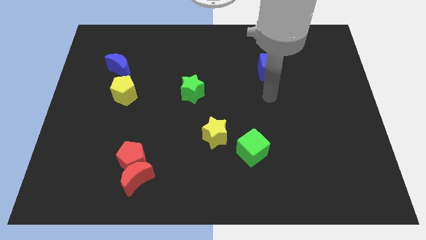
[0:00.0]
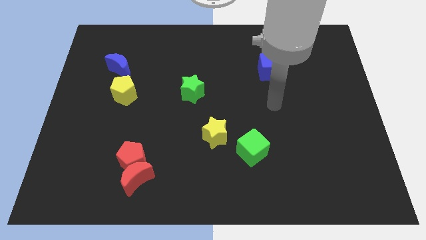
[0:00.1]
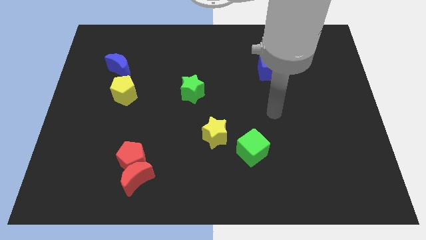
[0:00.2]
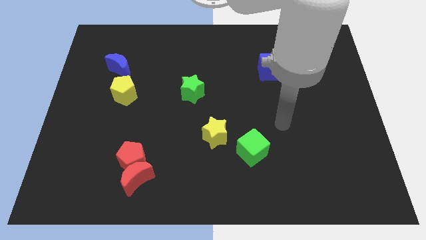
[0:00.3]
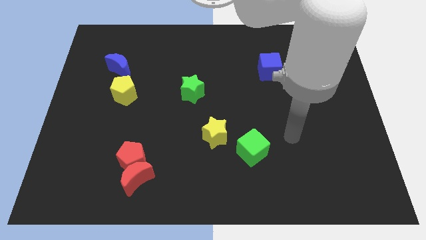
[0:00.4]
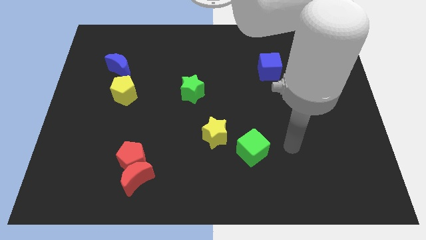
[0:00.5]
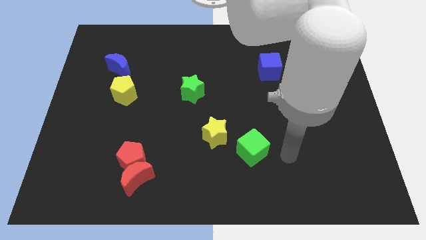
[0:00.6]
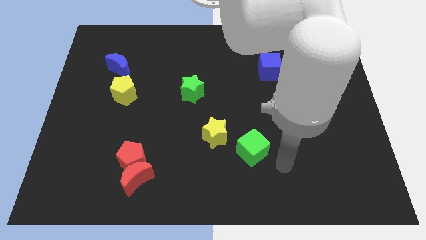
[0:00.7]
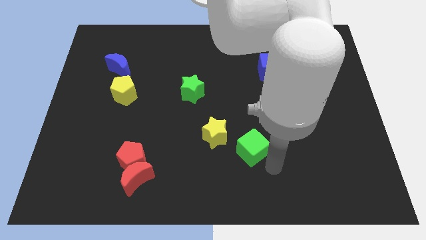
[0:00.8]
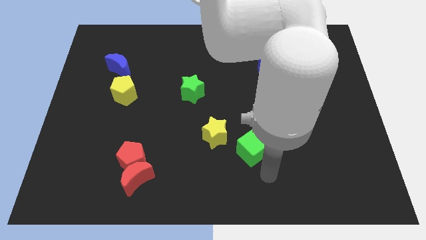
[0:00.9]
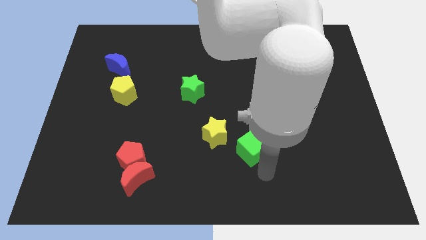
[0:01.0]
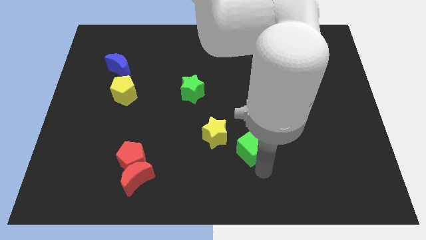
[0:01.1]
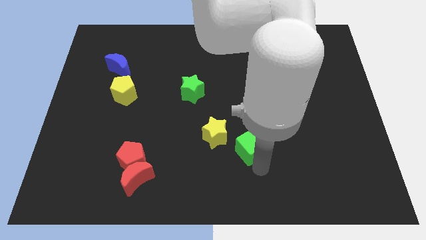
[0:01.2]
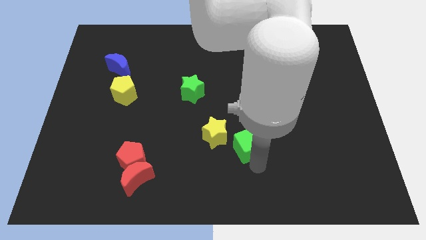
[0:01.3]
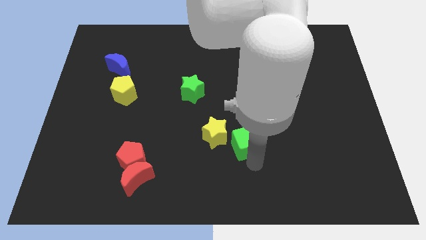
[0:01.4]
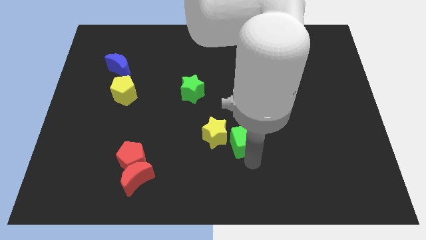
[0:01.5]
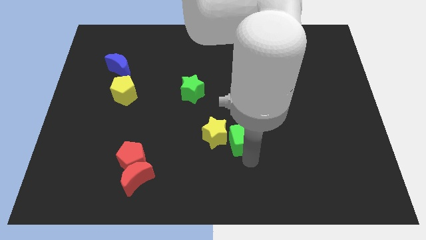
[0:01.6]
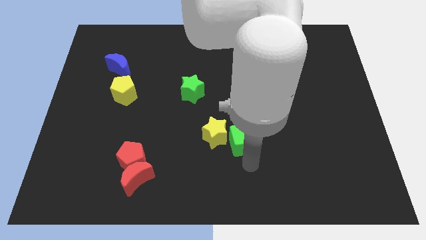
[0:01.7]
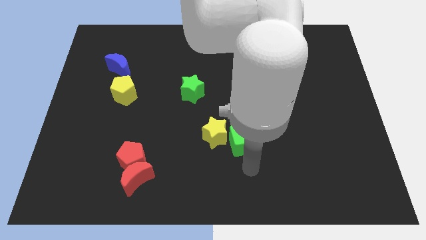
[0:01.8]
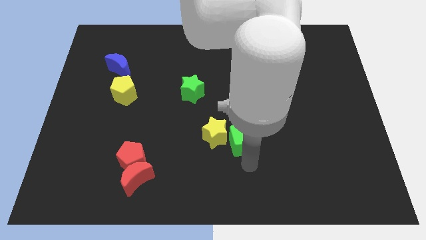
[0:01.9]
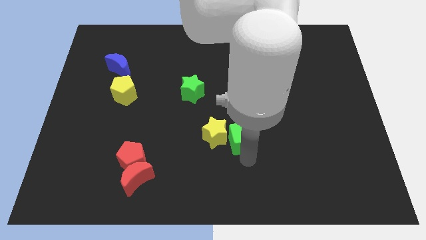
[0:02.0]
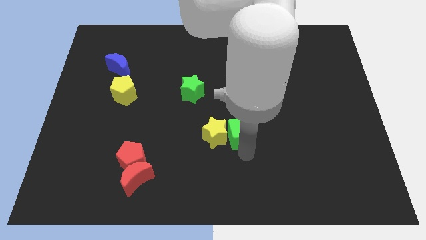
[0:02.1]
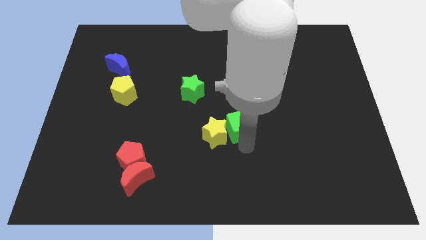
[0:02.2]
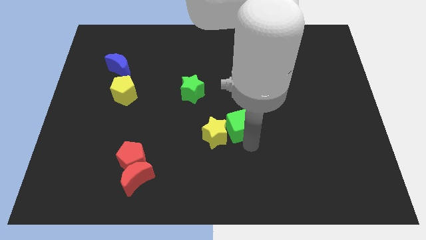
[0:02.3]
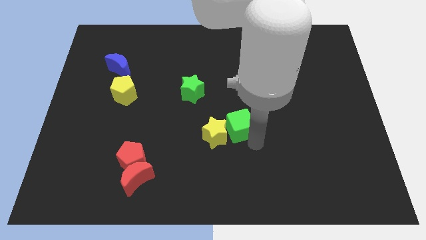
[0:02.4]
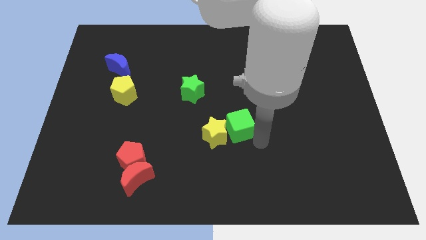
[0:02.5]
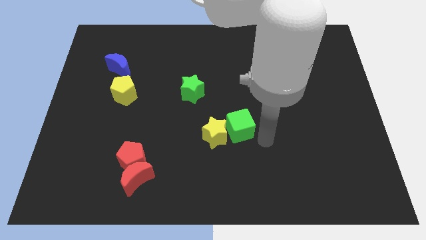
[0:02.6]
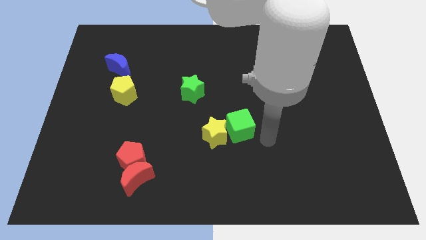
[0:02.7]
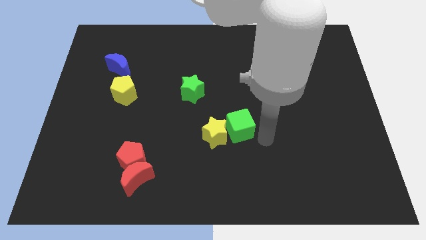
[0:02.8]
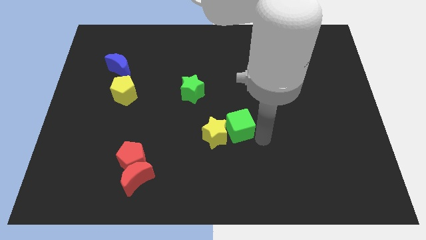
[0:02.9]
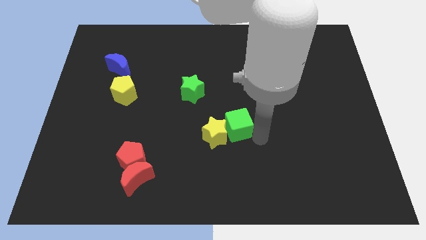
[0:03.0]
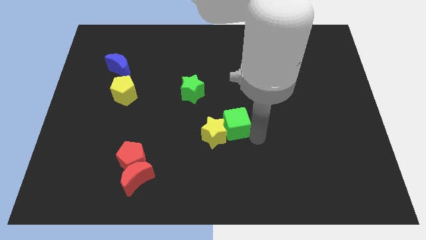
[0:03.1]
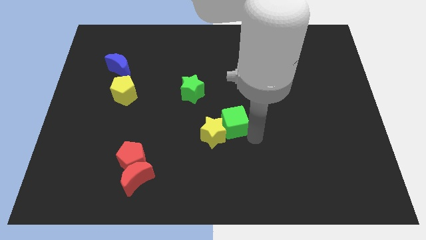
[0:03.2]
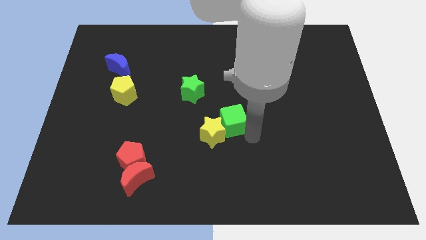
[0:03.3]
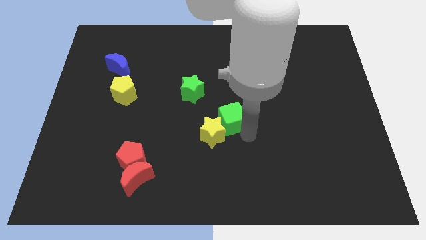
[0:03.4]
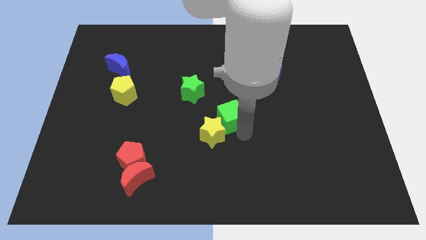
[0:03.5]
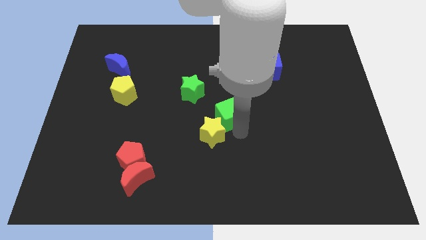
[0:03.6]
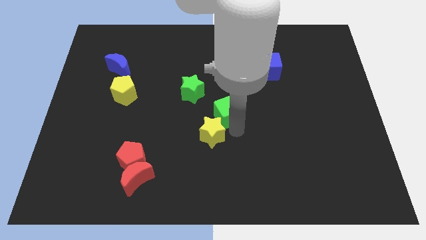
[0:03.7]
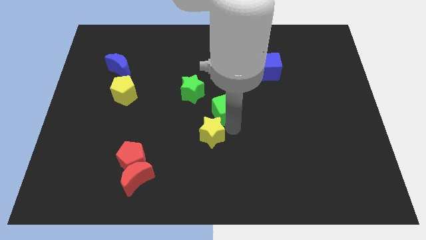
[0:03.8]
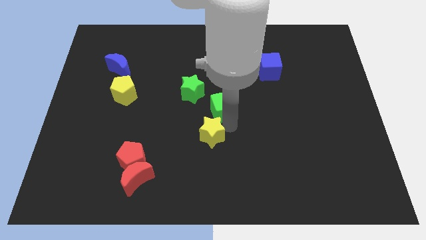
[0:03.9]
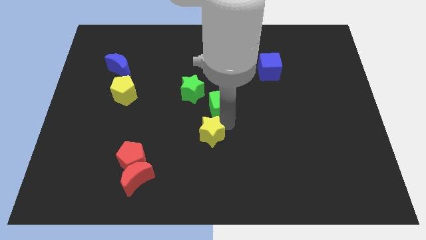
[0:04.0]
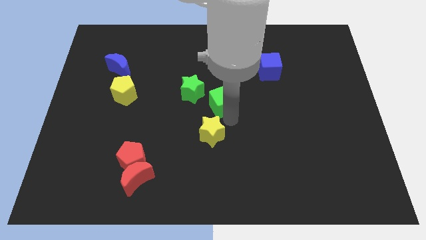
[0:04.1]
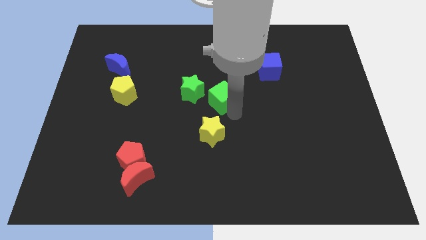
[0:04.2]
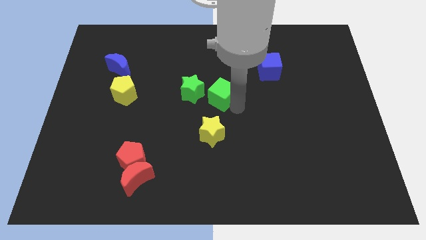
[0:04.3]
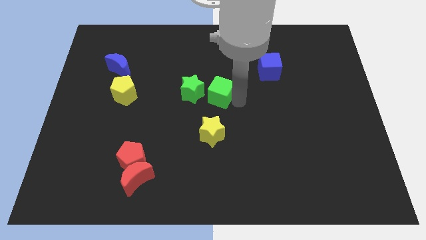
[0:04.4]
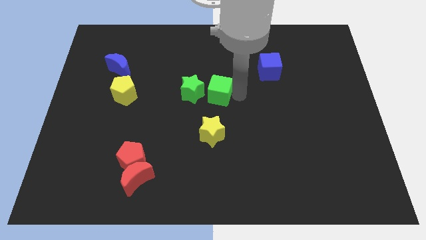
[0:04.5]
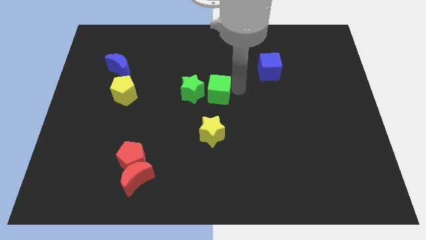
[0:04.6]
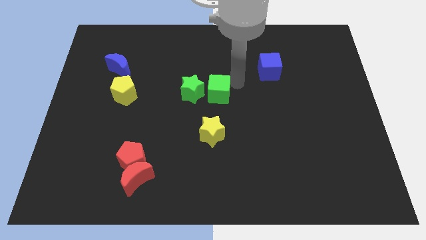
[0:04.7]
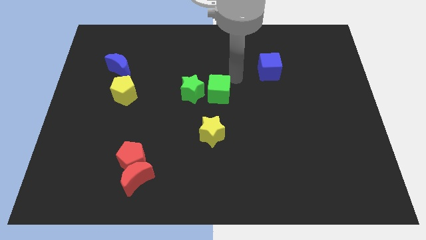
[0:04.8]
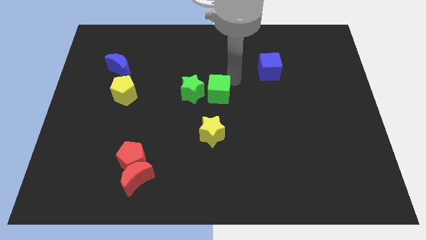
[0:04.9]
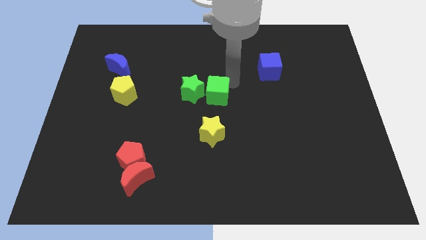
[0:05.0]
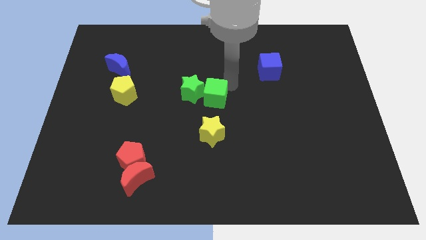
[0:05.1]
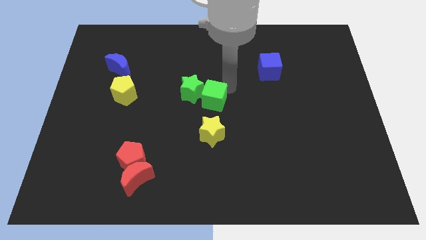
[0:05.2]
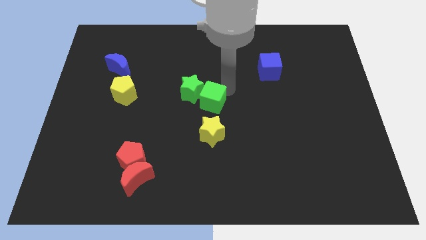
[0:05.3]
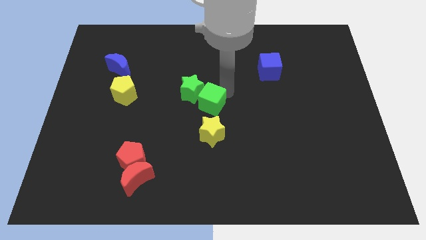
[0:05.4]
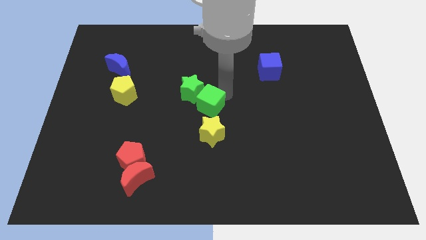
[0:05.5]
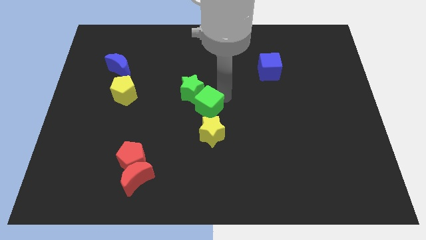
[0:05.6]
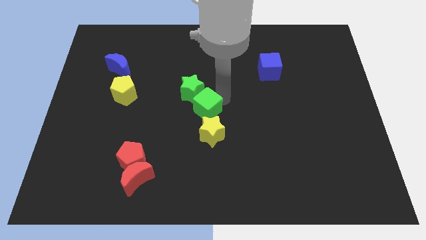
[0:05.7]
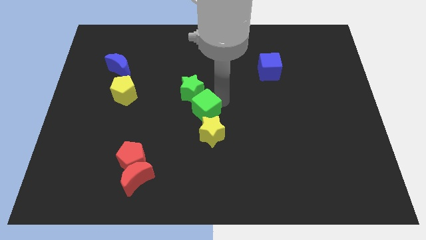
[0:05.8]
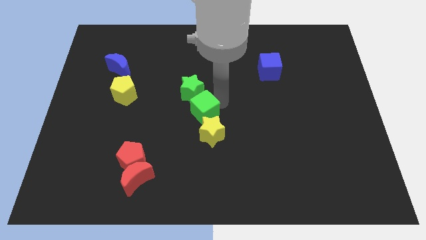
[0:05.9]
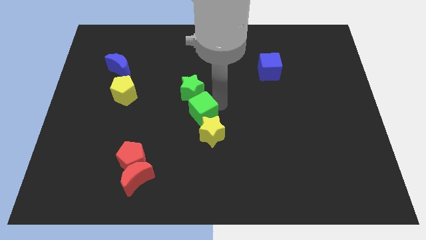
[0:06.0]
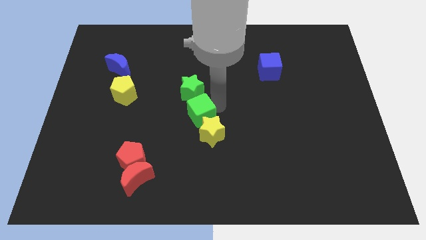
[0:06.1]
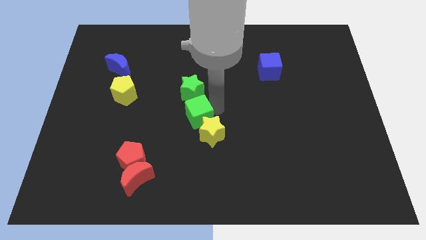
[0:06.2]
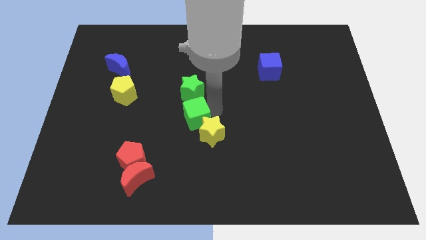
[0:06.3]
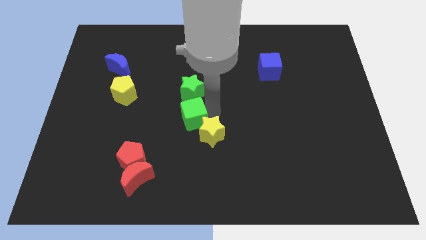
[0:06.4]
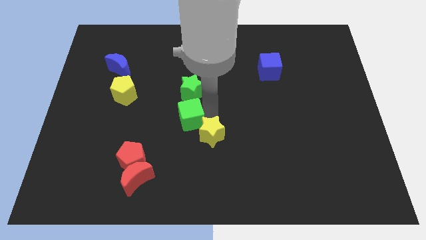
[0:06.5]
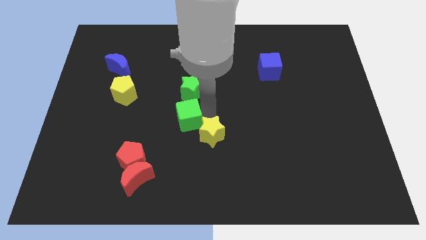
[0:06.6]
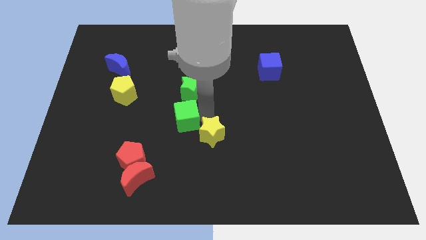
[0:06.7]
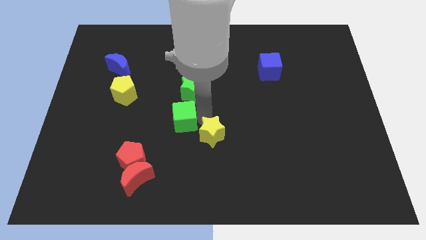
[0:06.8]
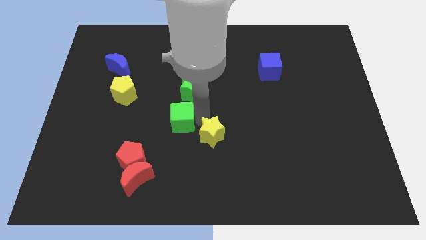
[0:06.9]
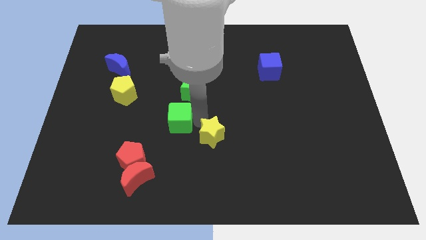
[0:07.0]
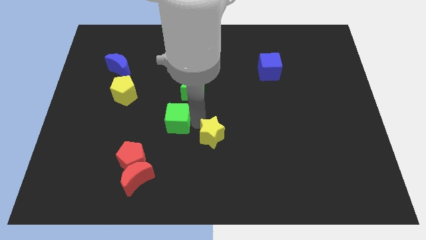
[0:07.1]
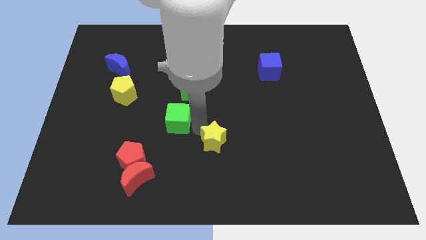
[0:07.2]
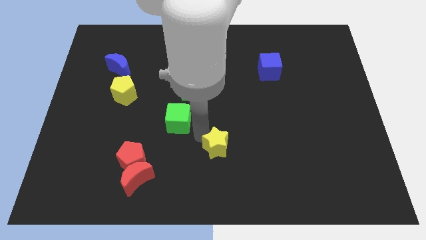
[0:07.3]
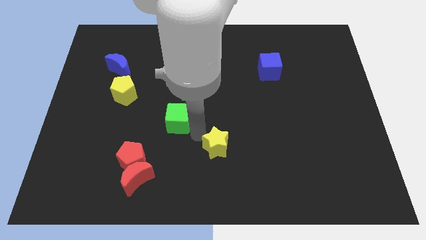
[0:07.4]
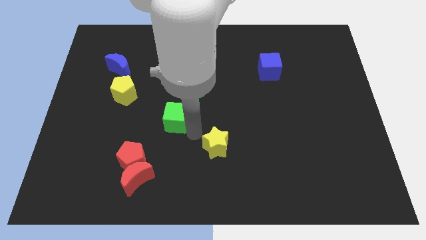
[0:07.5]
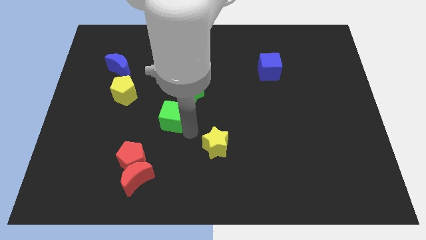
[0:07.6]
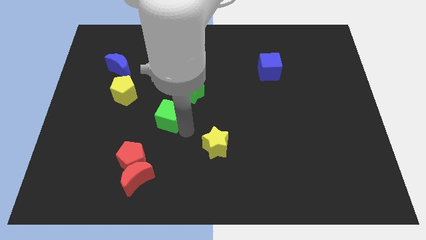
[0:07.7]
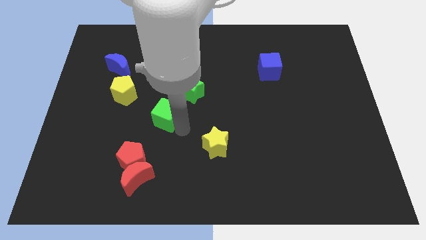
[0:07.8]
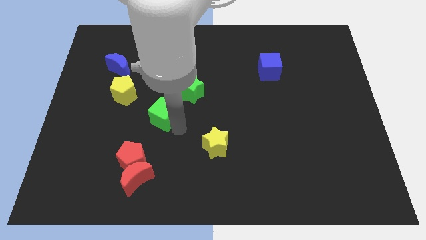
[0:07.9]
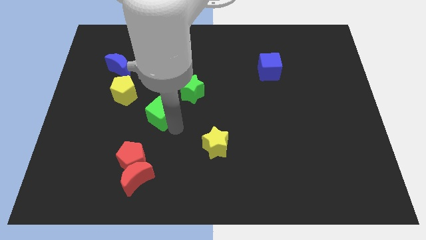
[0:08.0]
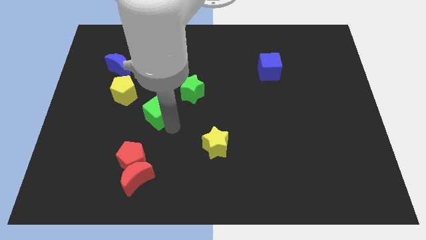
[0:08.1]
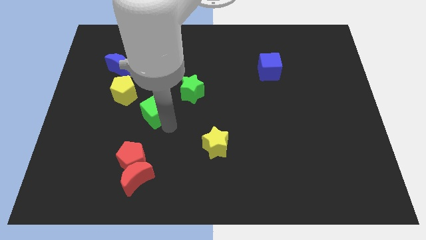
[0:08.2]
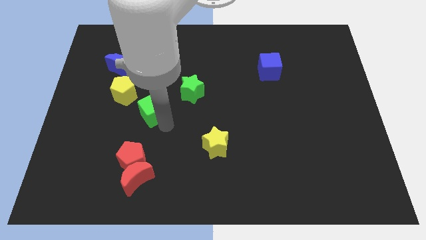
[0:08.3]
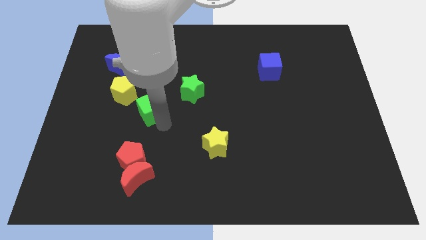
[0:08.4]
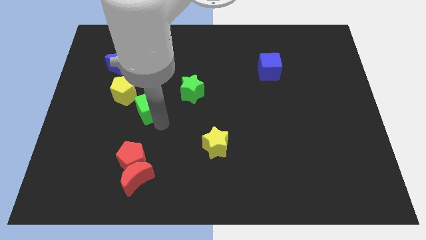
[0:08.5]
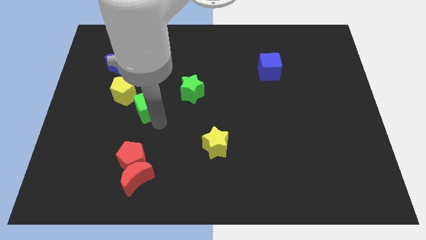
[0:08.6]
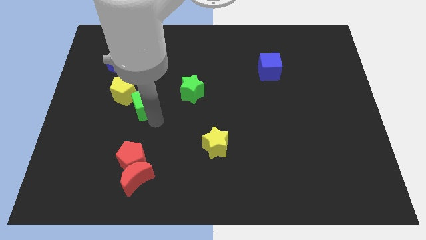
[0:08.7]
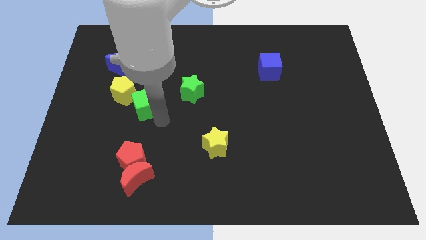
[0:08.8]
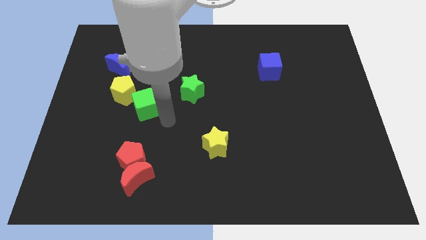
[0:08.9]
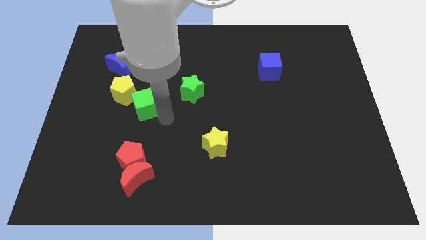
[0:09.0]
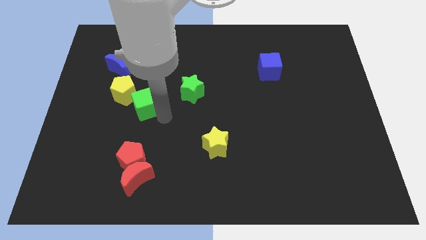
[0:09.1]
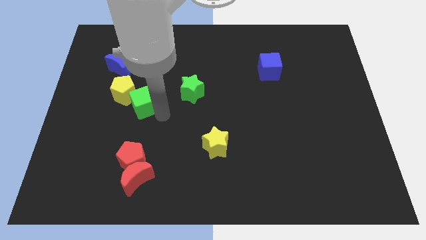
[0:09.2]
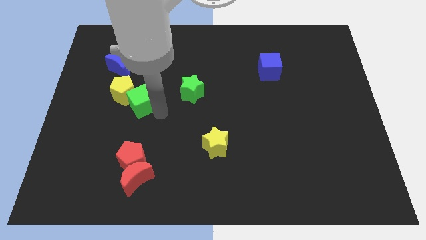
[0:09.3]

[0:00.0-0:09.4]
put the green cube next to the yellow pentagon
